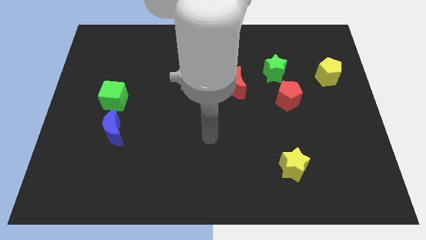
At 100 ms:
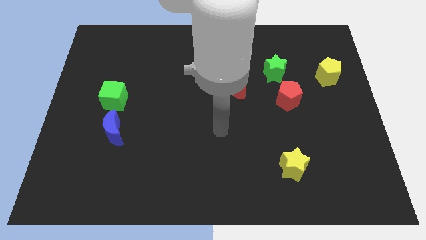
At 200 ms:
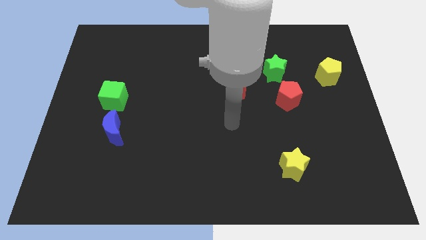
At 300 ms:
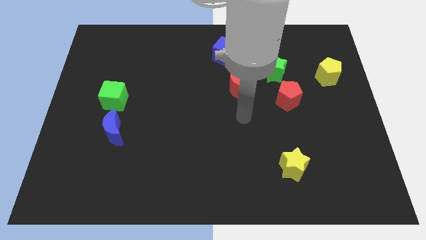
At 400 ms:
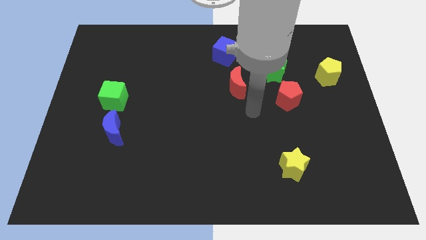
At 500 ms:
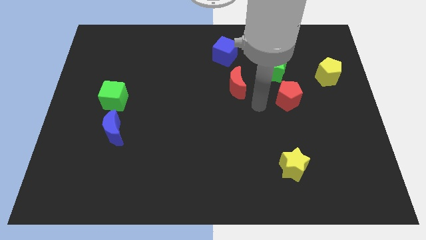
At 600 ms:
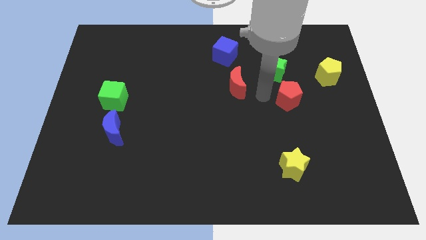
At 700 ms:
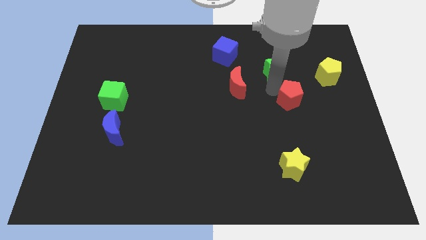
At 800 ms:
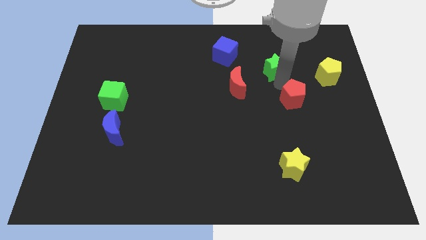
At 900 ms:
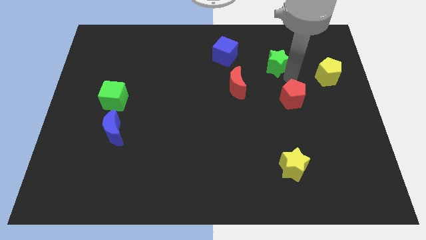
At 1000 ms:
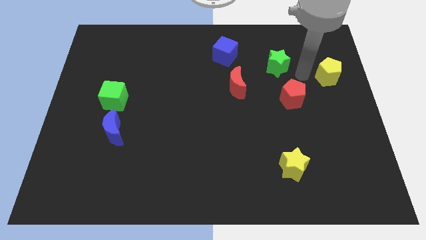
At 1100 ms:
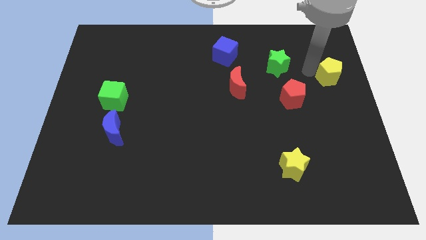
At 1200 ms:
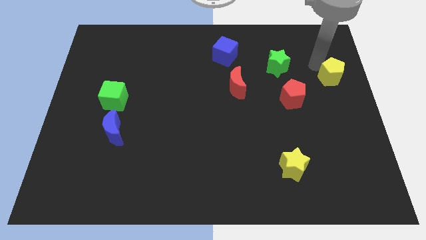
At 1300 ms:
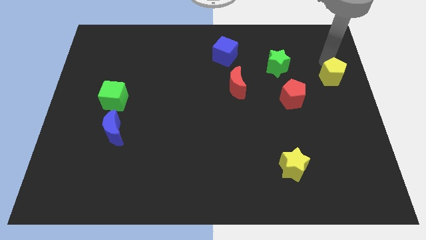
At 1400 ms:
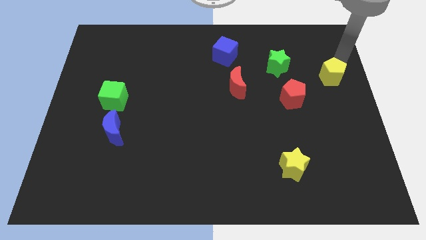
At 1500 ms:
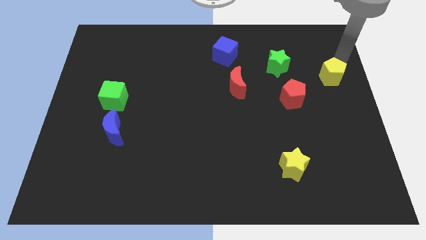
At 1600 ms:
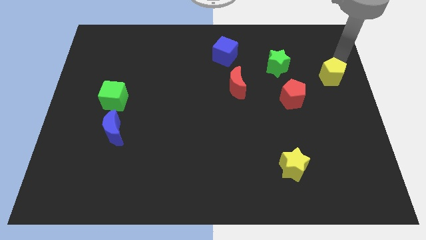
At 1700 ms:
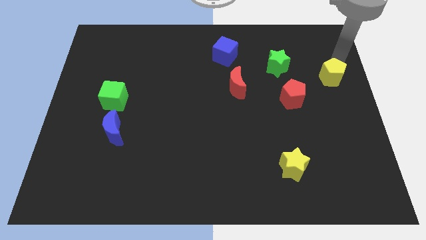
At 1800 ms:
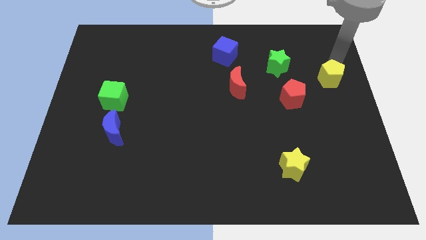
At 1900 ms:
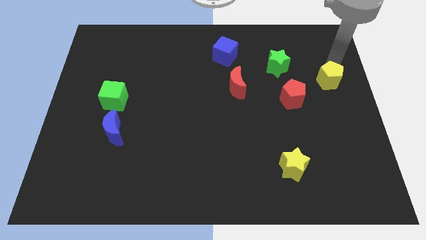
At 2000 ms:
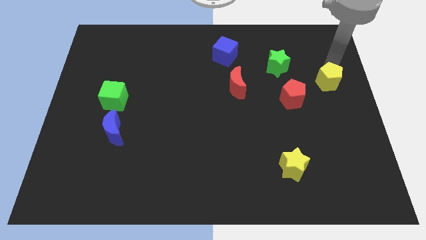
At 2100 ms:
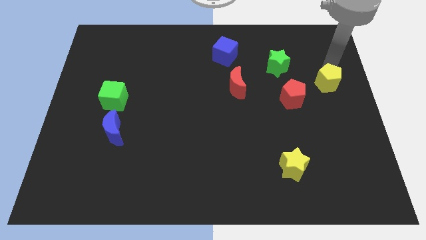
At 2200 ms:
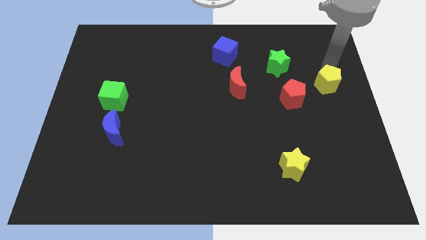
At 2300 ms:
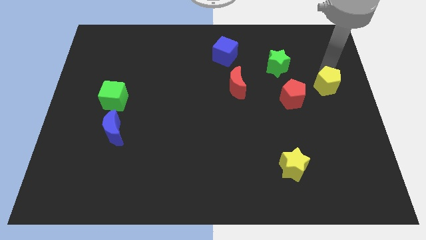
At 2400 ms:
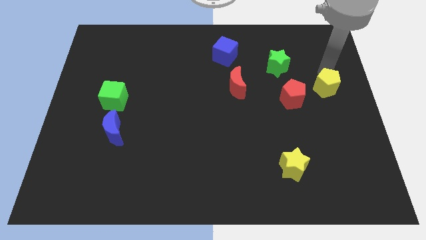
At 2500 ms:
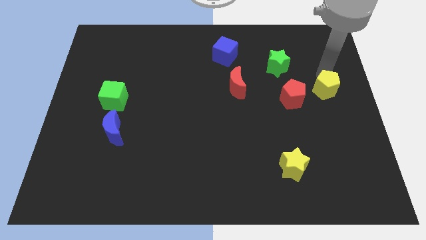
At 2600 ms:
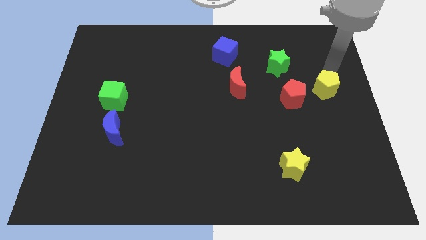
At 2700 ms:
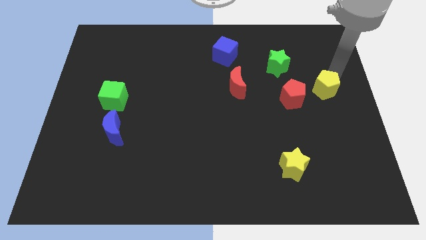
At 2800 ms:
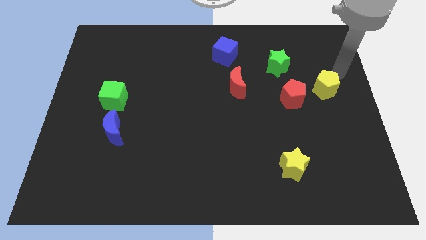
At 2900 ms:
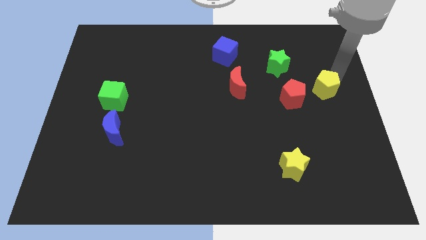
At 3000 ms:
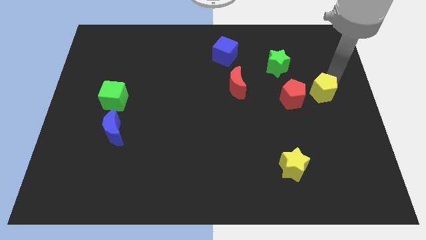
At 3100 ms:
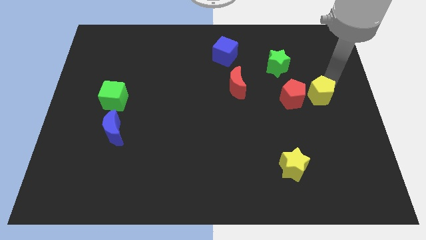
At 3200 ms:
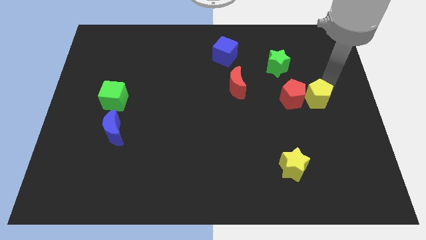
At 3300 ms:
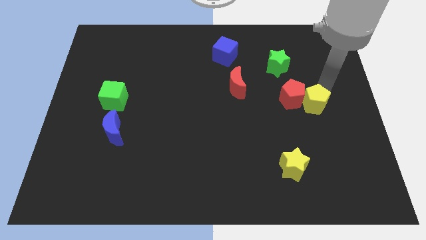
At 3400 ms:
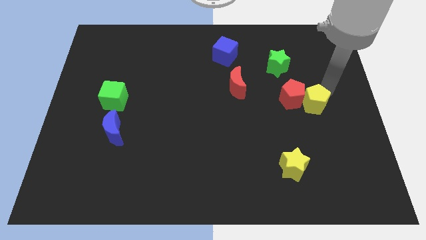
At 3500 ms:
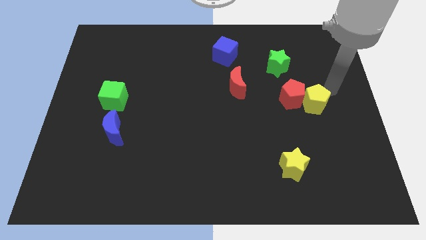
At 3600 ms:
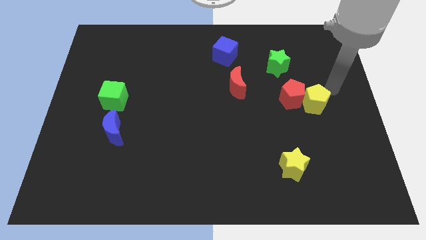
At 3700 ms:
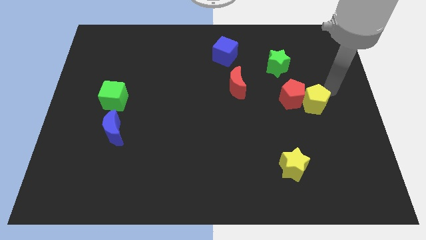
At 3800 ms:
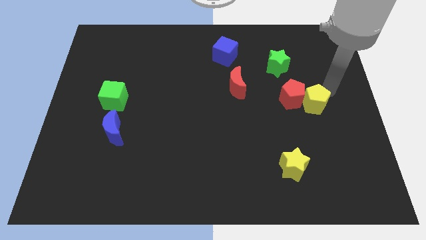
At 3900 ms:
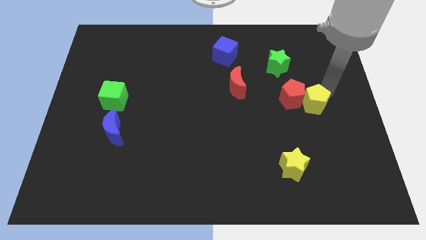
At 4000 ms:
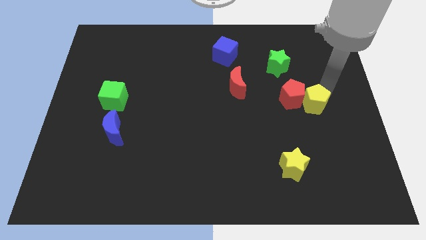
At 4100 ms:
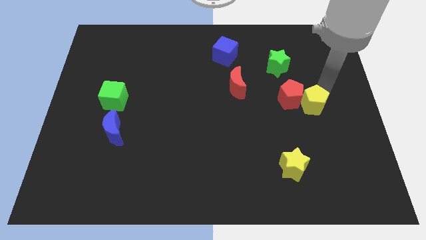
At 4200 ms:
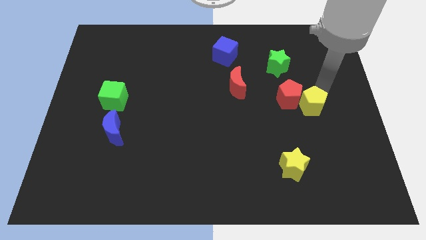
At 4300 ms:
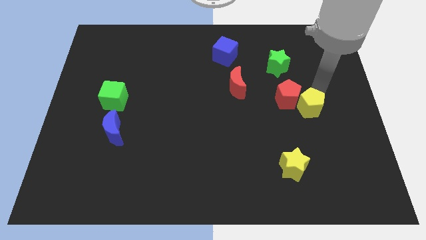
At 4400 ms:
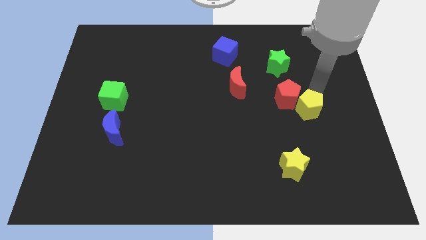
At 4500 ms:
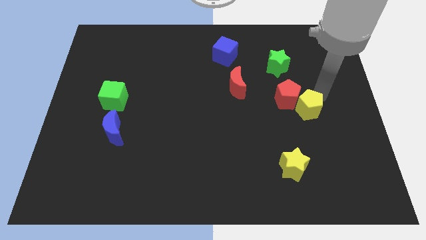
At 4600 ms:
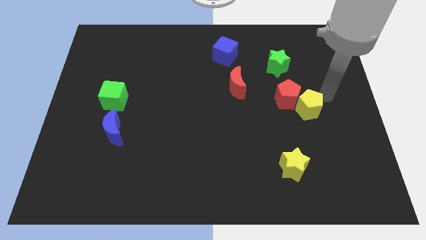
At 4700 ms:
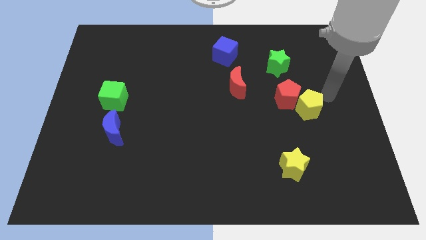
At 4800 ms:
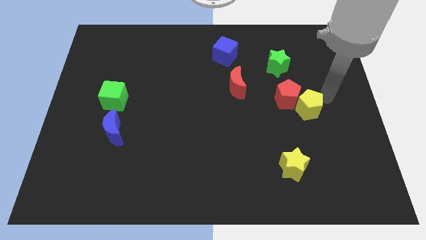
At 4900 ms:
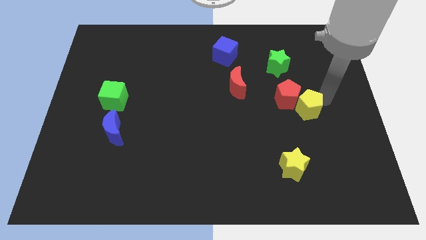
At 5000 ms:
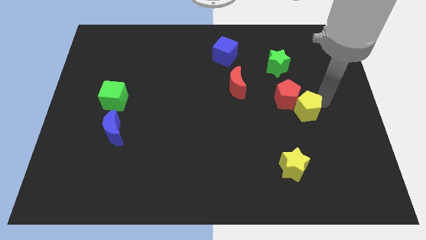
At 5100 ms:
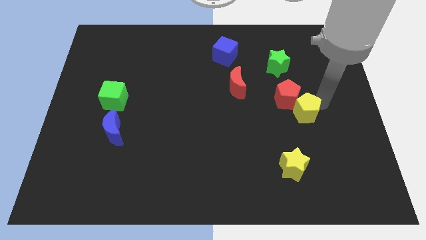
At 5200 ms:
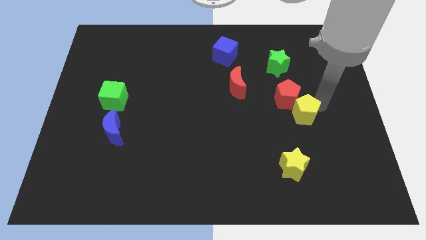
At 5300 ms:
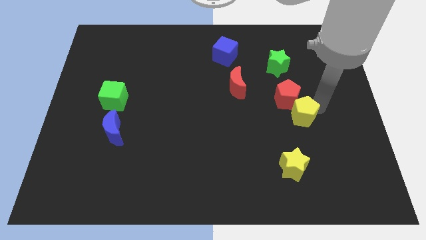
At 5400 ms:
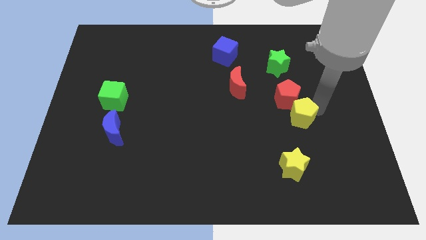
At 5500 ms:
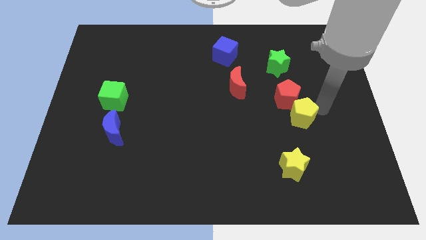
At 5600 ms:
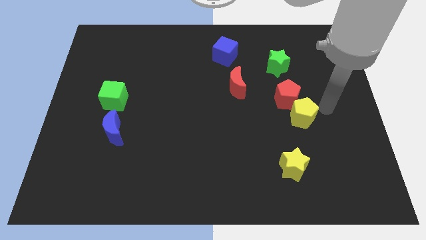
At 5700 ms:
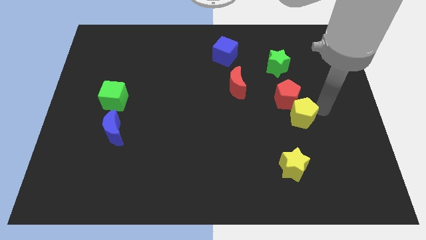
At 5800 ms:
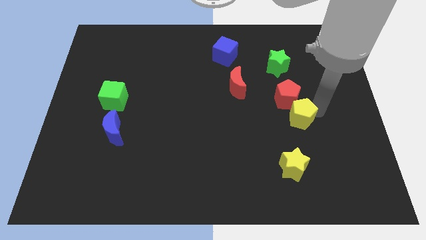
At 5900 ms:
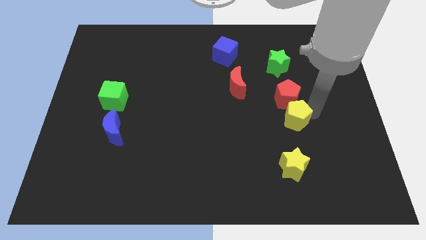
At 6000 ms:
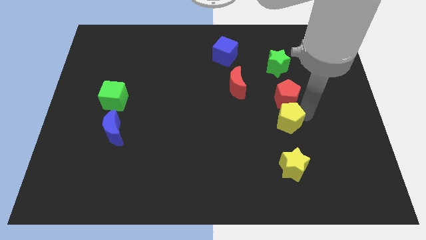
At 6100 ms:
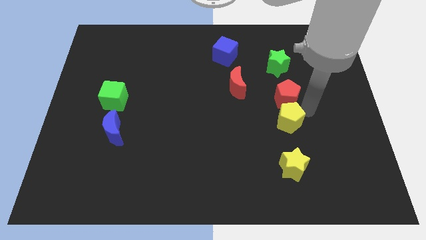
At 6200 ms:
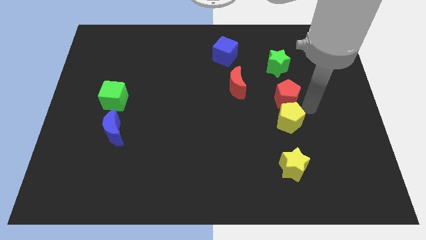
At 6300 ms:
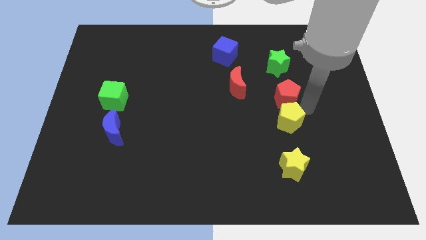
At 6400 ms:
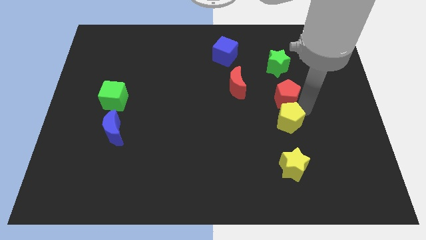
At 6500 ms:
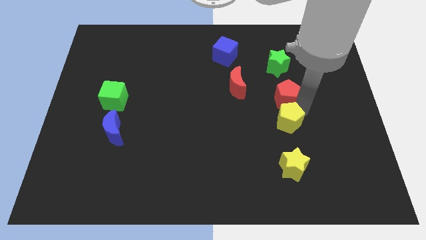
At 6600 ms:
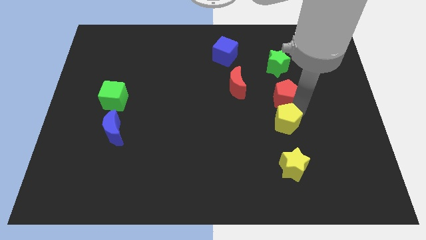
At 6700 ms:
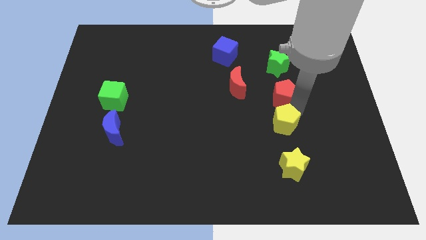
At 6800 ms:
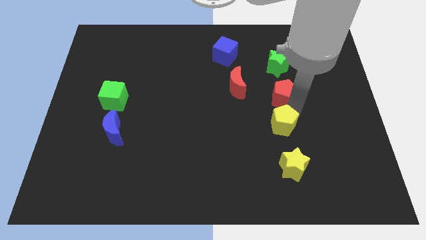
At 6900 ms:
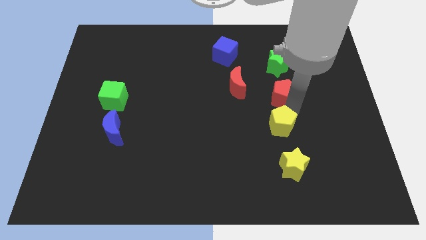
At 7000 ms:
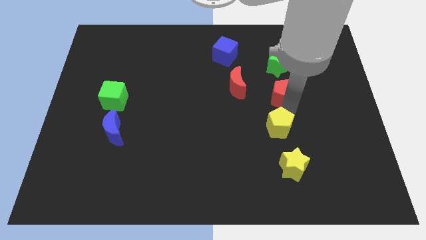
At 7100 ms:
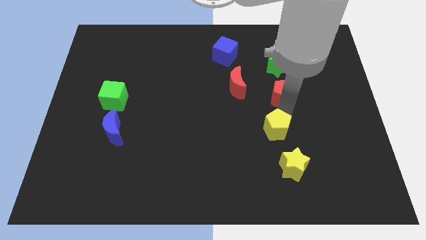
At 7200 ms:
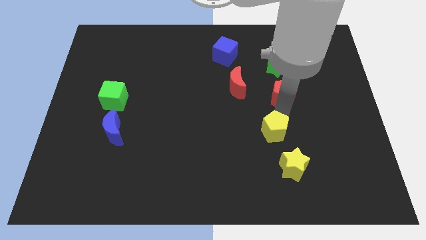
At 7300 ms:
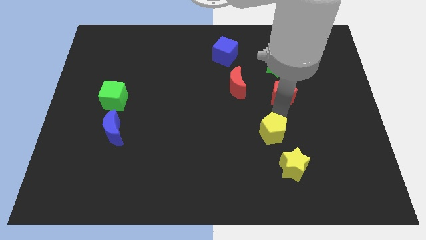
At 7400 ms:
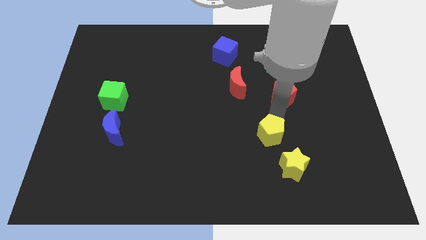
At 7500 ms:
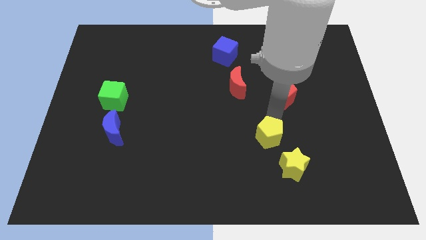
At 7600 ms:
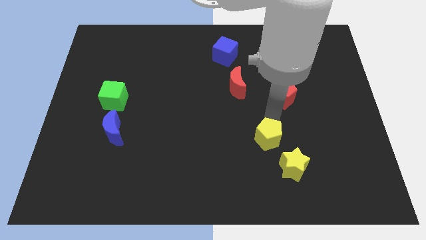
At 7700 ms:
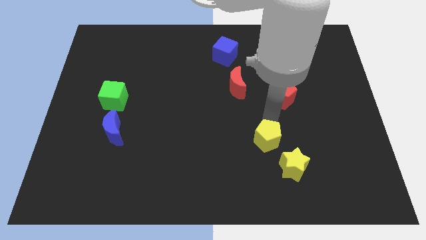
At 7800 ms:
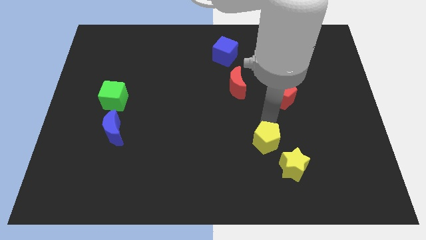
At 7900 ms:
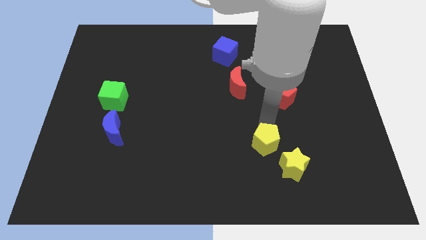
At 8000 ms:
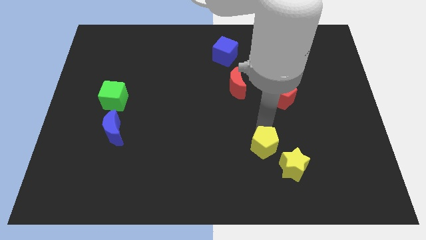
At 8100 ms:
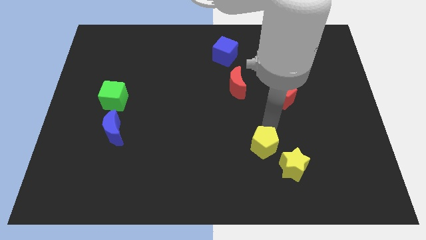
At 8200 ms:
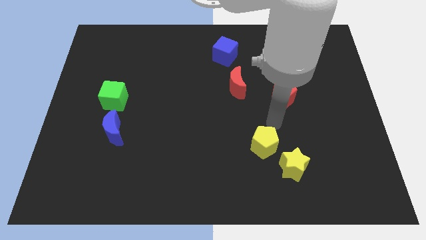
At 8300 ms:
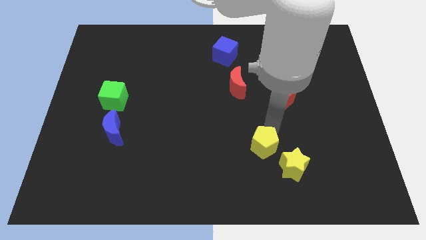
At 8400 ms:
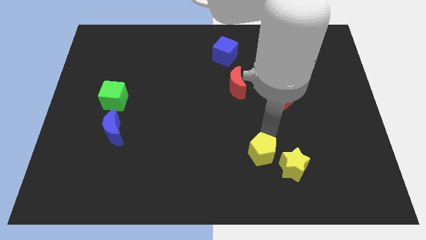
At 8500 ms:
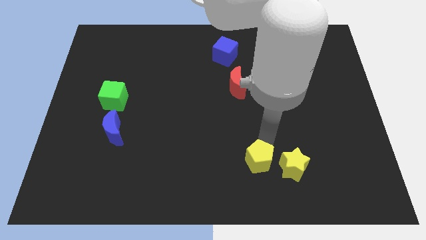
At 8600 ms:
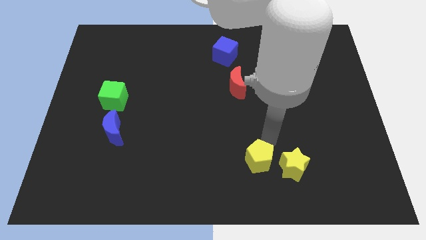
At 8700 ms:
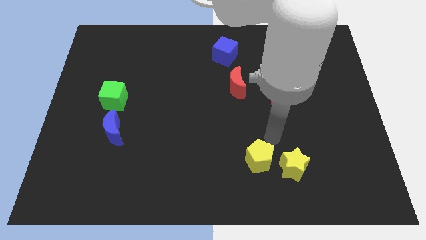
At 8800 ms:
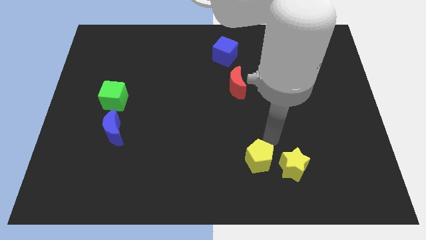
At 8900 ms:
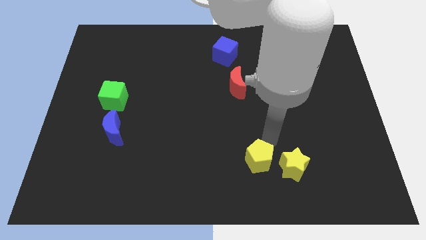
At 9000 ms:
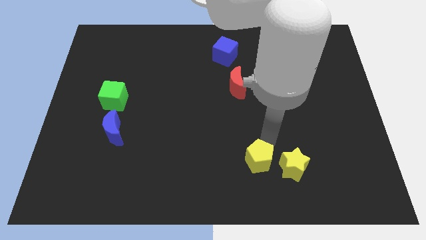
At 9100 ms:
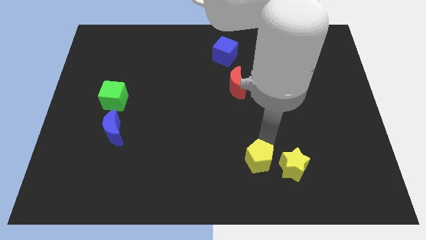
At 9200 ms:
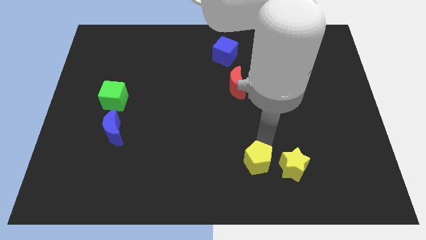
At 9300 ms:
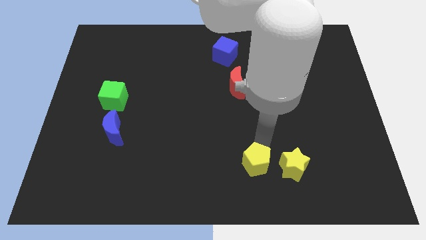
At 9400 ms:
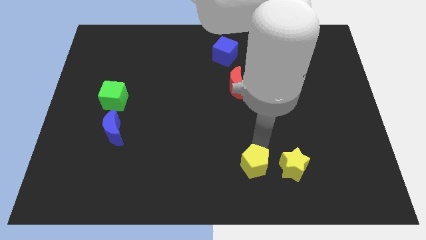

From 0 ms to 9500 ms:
push the yellow pentagon to the bottom side
